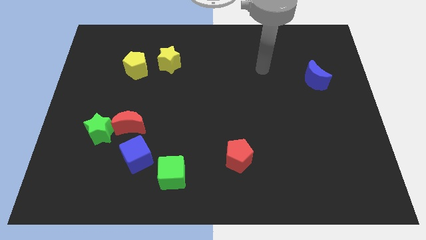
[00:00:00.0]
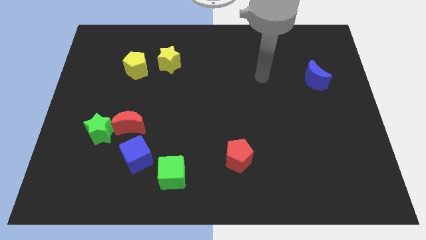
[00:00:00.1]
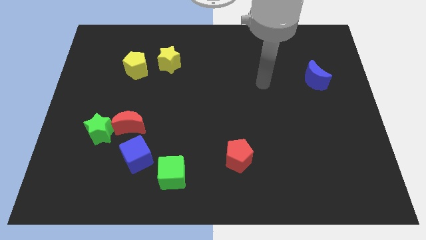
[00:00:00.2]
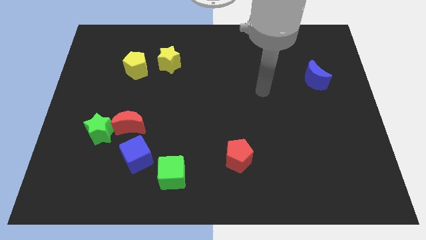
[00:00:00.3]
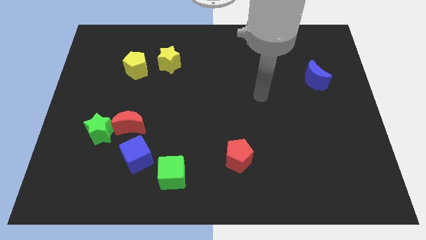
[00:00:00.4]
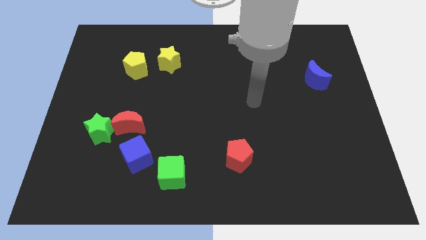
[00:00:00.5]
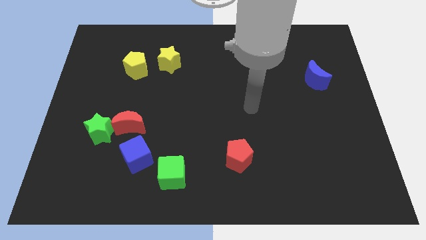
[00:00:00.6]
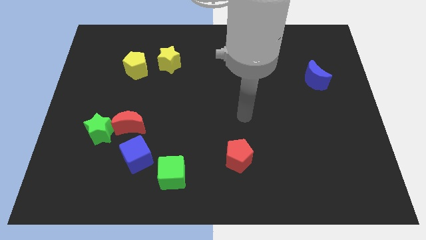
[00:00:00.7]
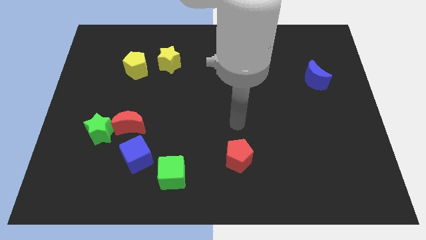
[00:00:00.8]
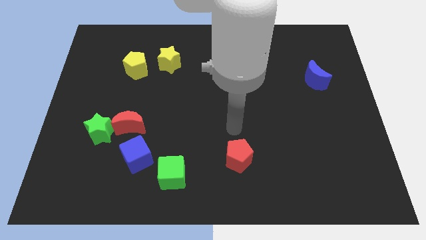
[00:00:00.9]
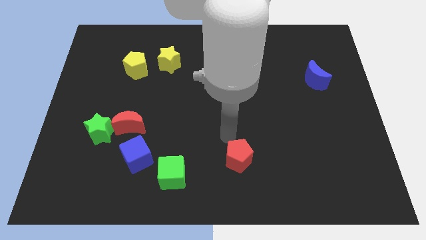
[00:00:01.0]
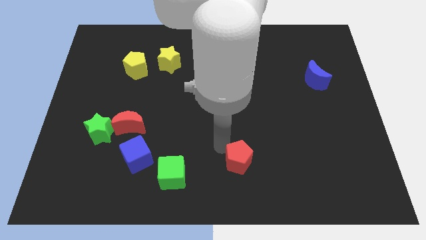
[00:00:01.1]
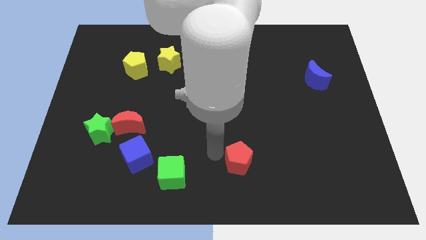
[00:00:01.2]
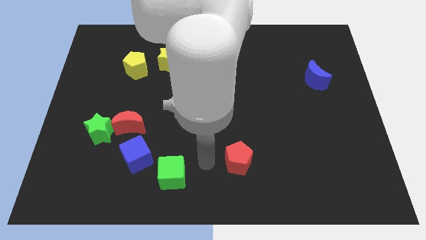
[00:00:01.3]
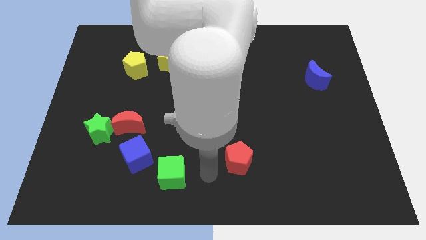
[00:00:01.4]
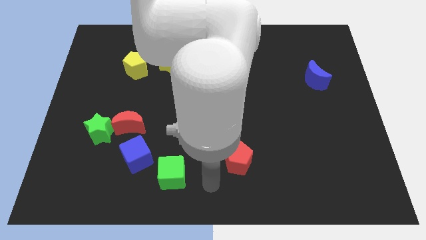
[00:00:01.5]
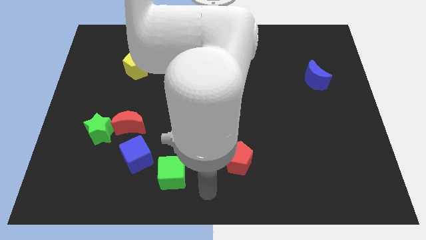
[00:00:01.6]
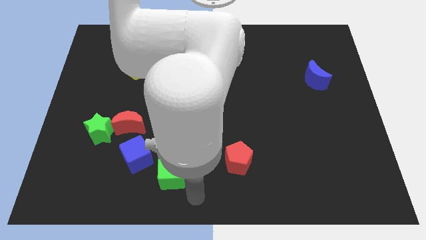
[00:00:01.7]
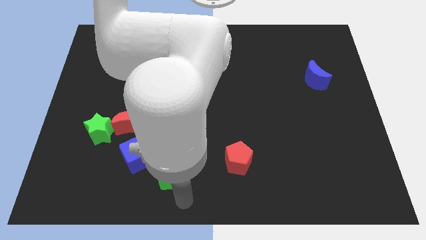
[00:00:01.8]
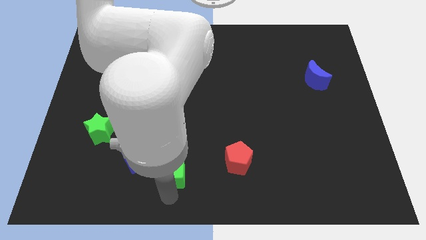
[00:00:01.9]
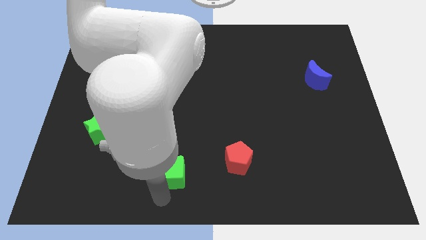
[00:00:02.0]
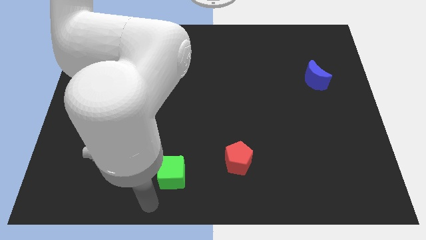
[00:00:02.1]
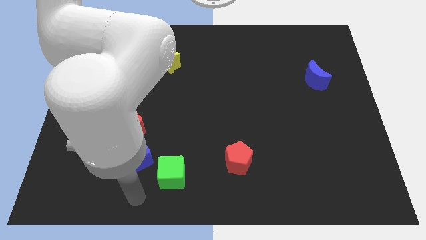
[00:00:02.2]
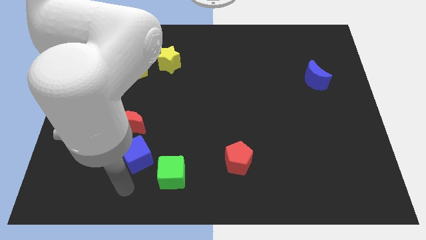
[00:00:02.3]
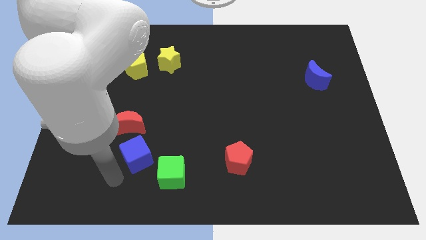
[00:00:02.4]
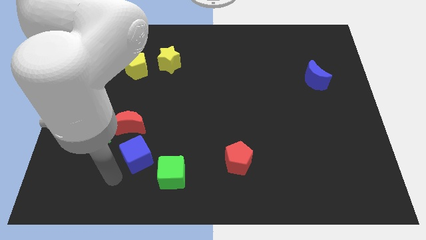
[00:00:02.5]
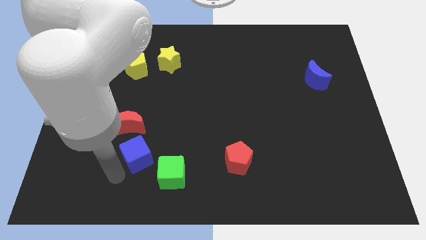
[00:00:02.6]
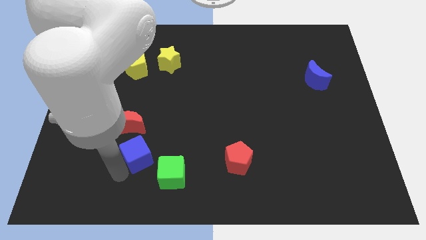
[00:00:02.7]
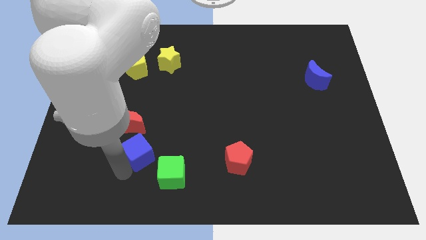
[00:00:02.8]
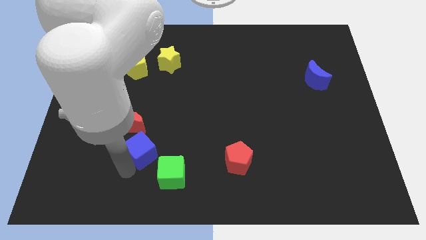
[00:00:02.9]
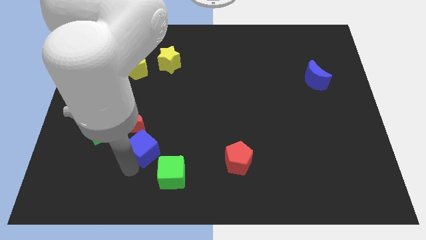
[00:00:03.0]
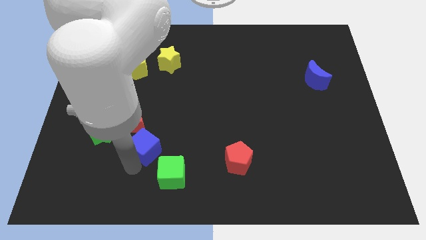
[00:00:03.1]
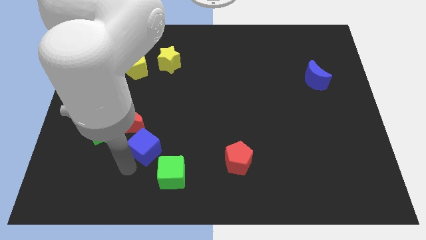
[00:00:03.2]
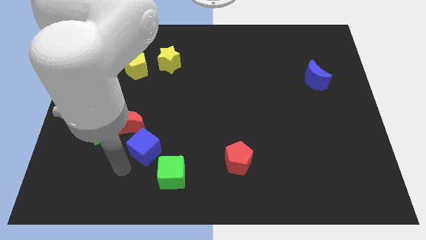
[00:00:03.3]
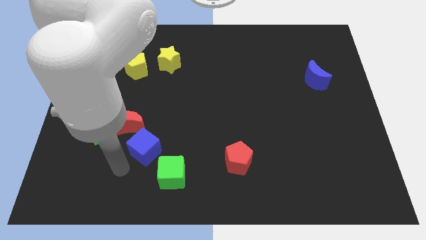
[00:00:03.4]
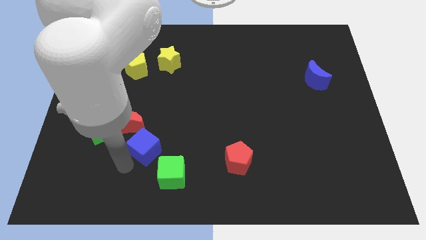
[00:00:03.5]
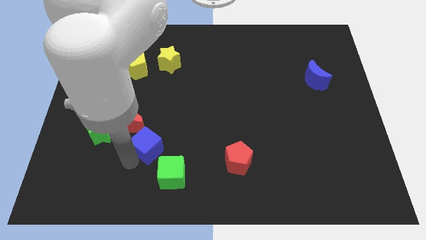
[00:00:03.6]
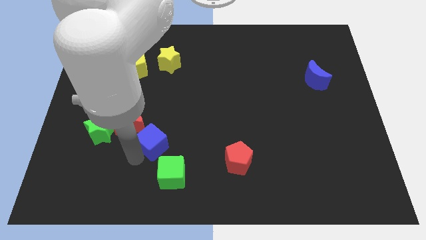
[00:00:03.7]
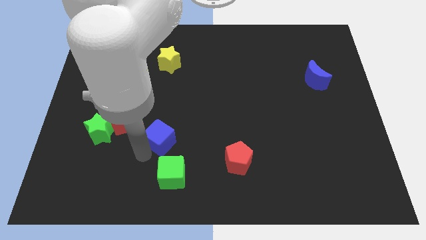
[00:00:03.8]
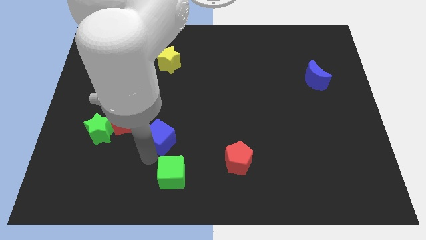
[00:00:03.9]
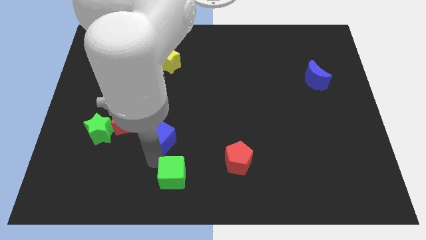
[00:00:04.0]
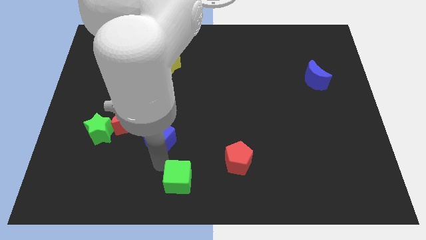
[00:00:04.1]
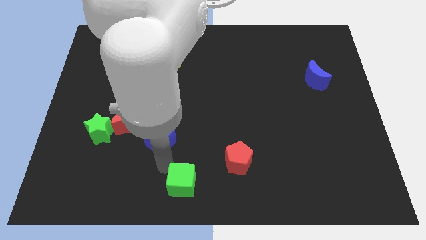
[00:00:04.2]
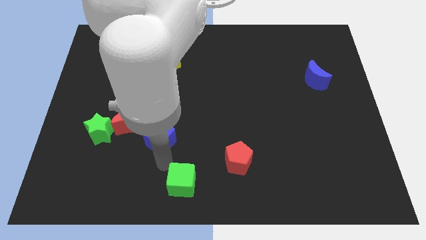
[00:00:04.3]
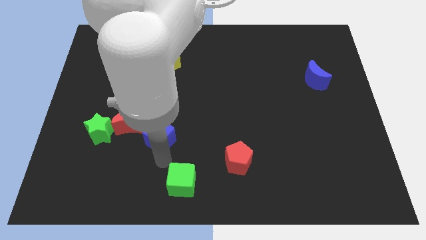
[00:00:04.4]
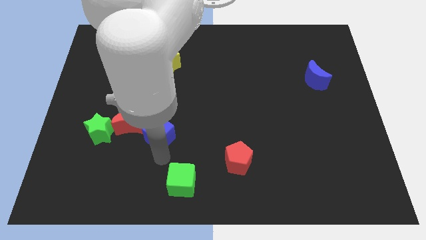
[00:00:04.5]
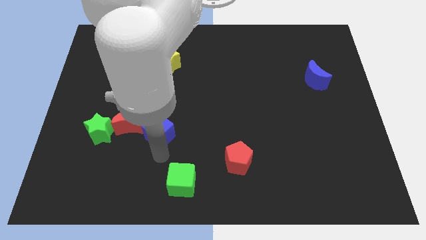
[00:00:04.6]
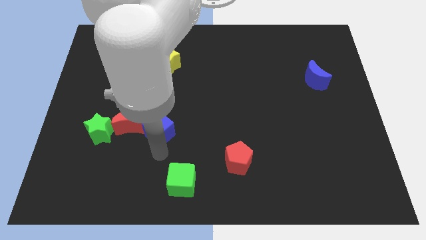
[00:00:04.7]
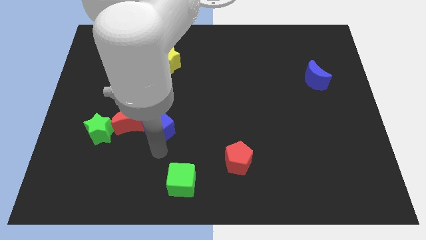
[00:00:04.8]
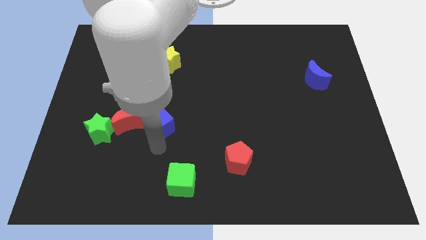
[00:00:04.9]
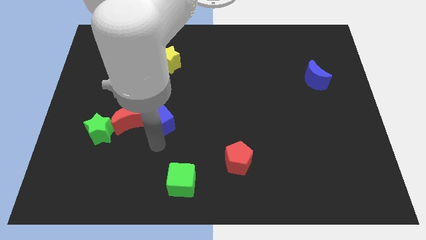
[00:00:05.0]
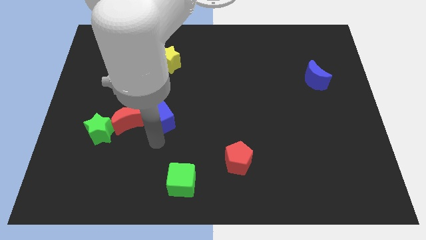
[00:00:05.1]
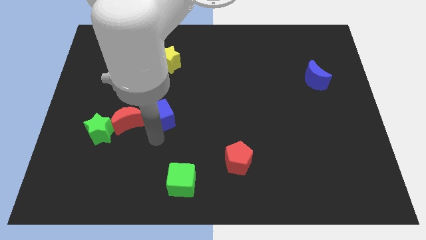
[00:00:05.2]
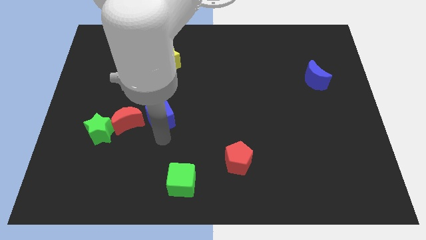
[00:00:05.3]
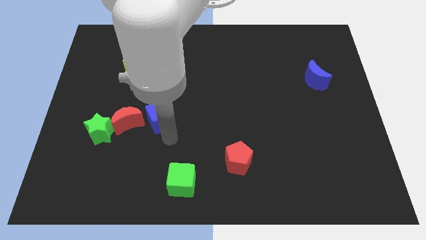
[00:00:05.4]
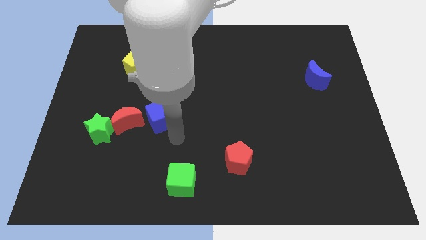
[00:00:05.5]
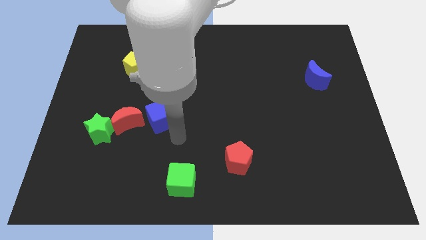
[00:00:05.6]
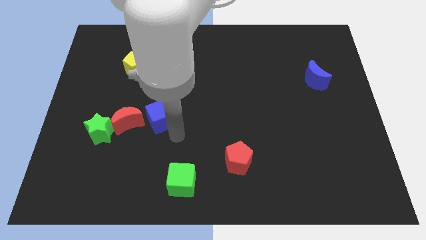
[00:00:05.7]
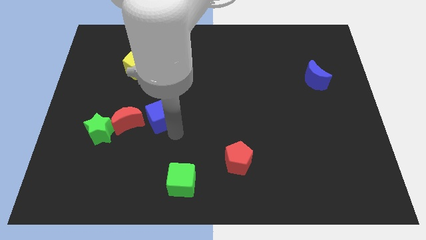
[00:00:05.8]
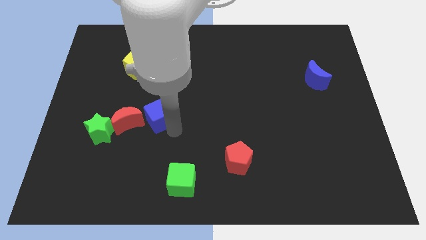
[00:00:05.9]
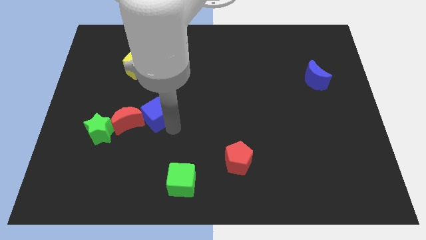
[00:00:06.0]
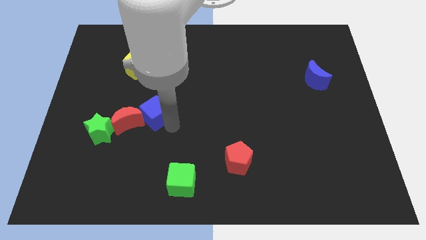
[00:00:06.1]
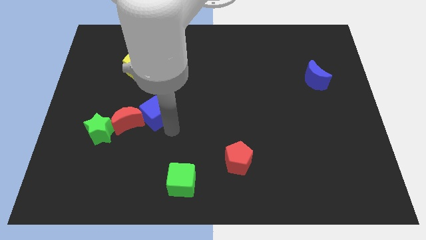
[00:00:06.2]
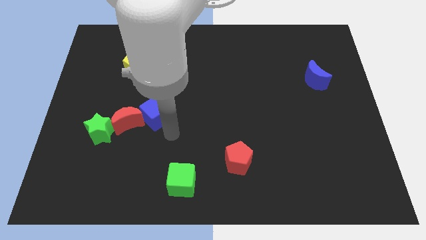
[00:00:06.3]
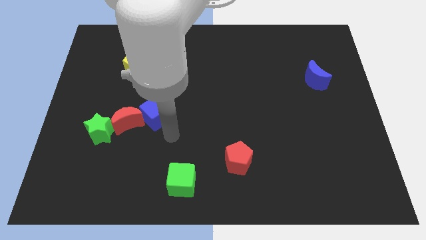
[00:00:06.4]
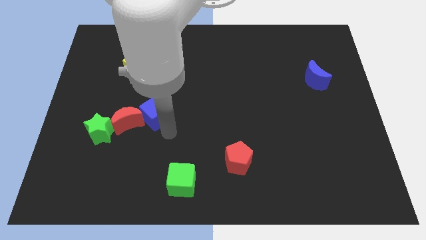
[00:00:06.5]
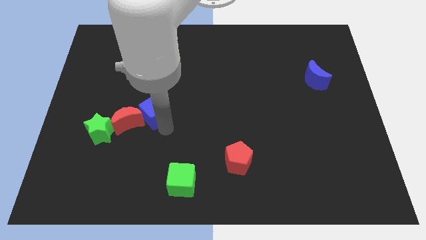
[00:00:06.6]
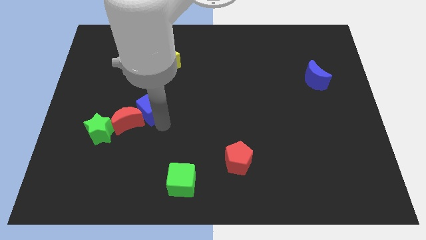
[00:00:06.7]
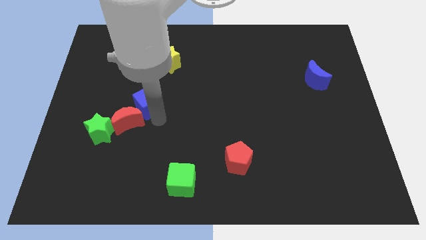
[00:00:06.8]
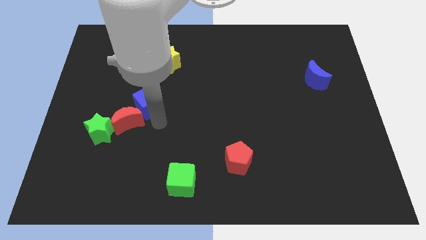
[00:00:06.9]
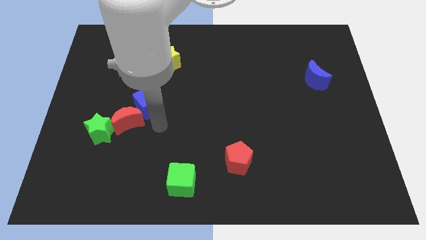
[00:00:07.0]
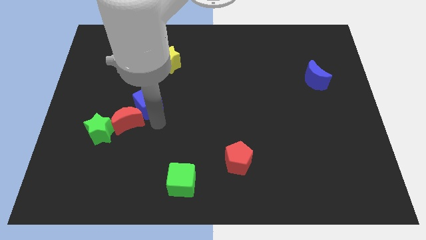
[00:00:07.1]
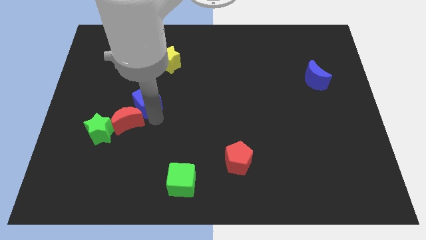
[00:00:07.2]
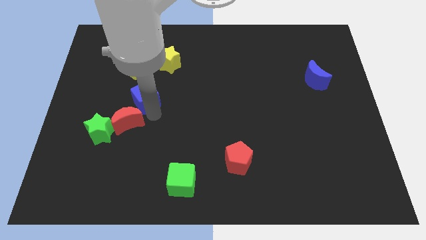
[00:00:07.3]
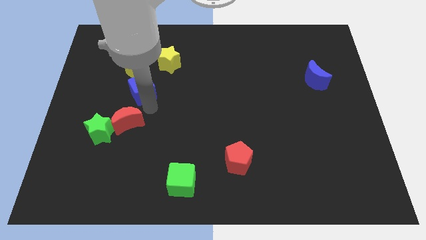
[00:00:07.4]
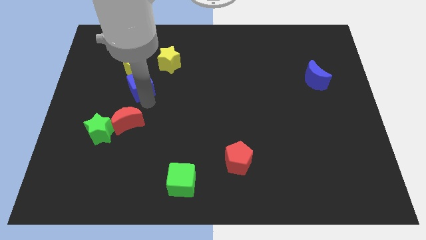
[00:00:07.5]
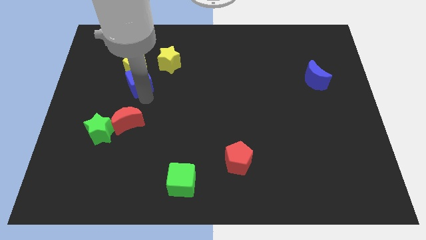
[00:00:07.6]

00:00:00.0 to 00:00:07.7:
put the blue cube next to the yellow pentagon

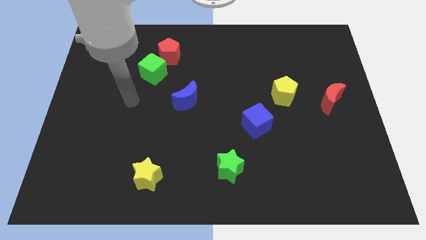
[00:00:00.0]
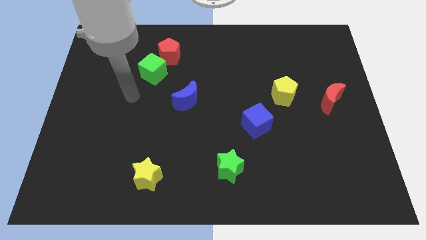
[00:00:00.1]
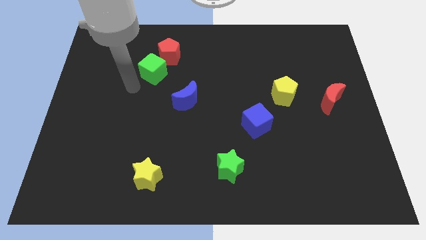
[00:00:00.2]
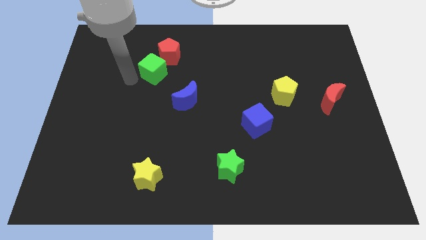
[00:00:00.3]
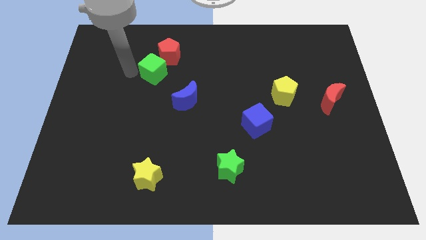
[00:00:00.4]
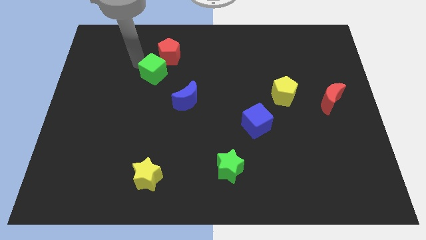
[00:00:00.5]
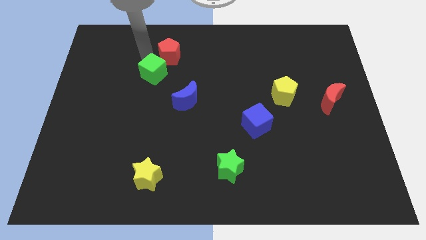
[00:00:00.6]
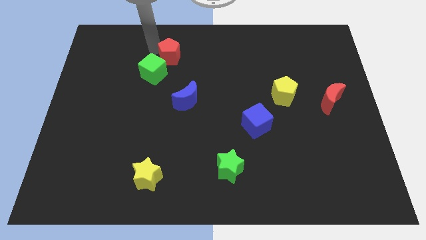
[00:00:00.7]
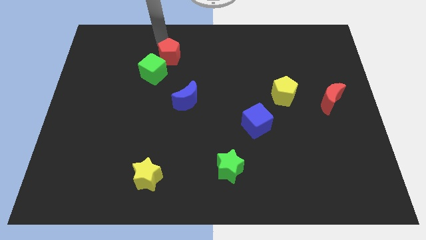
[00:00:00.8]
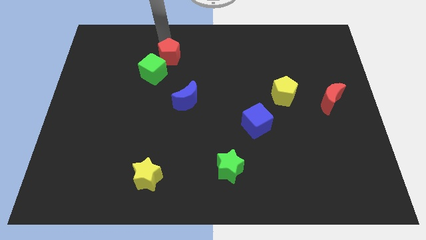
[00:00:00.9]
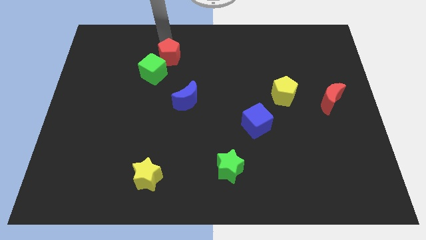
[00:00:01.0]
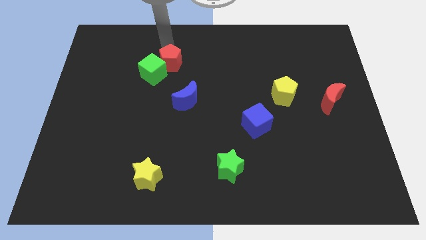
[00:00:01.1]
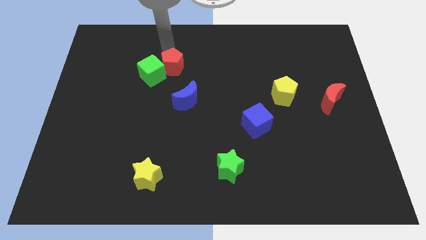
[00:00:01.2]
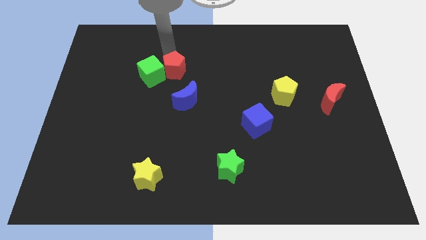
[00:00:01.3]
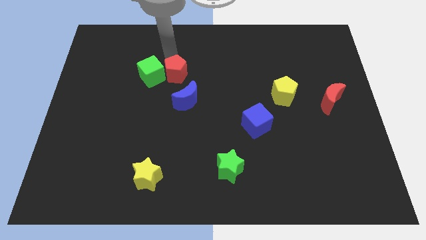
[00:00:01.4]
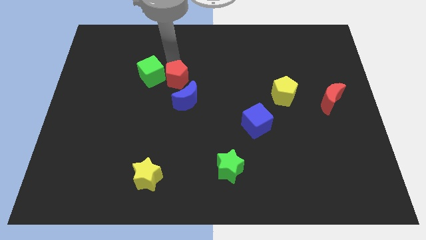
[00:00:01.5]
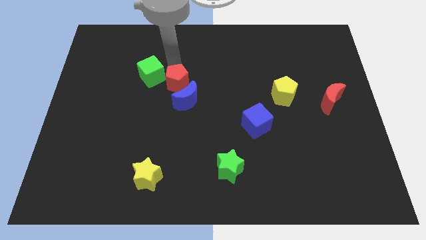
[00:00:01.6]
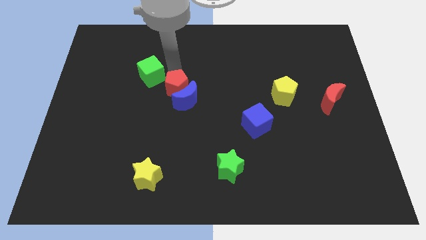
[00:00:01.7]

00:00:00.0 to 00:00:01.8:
slide the red pentagon next to the blue moon
